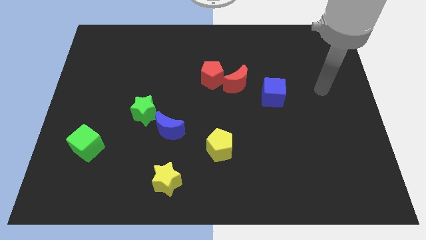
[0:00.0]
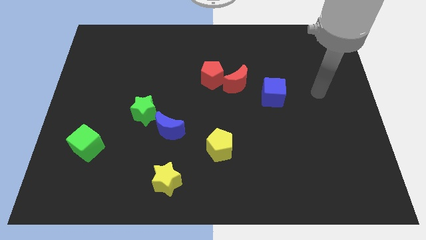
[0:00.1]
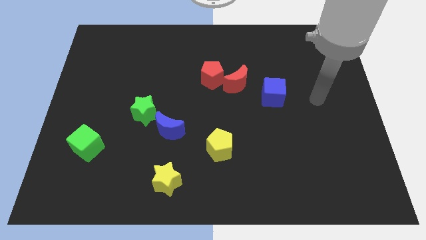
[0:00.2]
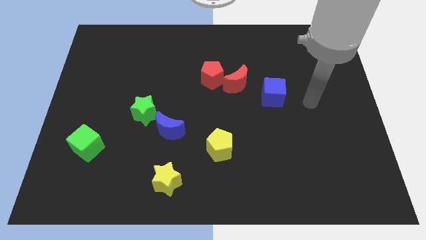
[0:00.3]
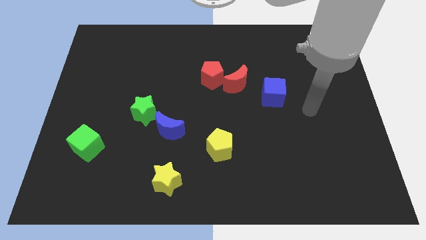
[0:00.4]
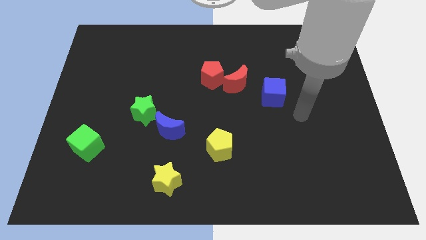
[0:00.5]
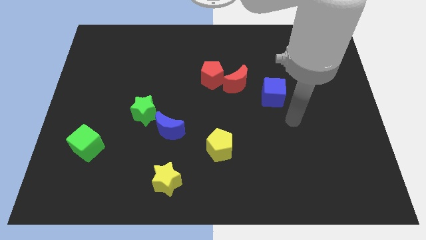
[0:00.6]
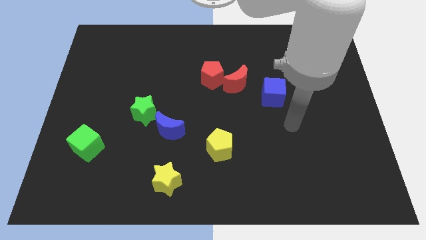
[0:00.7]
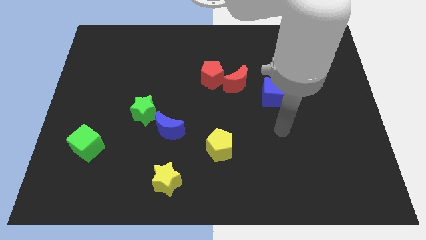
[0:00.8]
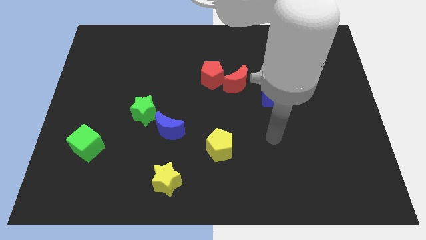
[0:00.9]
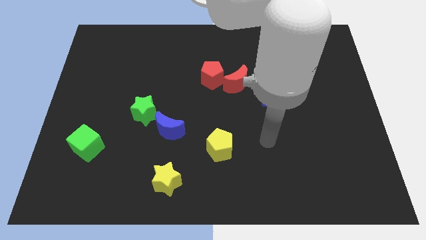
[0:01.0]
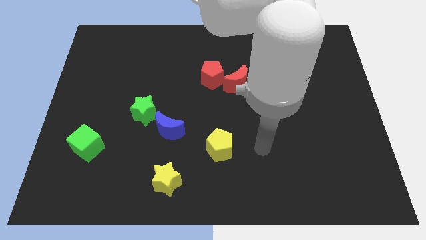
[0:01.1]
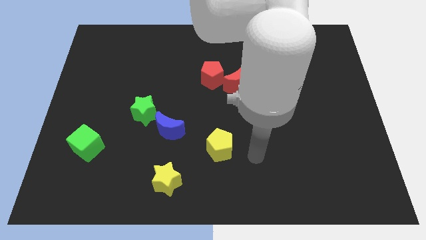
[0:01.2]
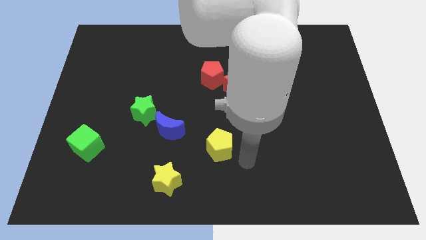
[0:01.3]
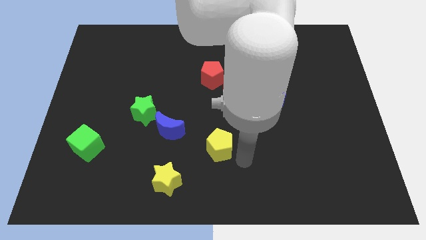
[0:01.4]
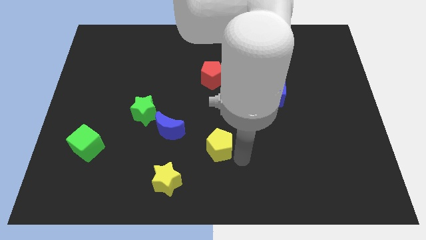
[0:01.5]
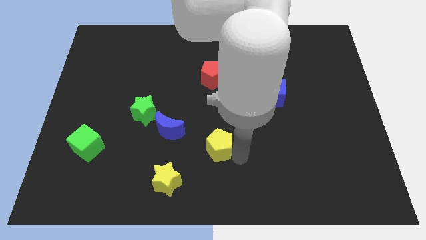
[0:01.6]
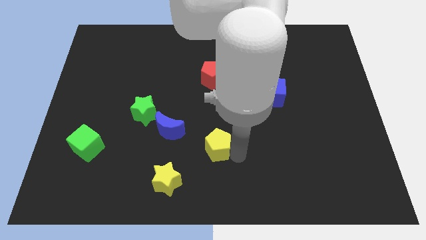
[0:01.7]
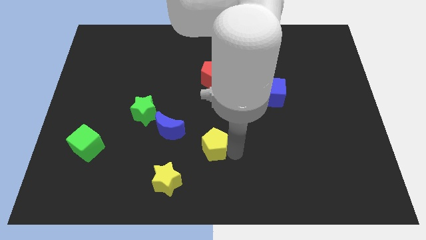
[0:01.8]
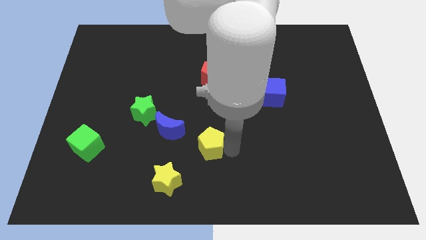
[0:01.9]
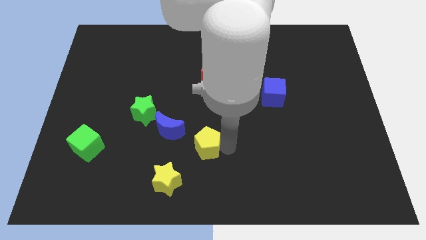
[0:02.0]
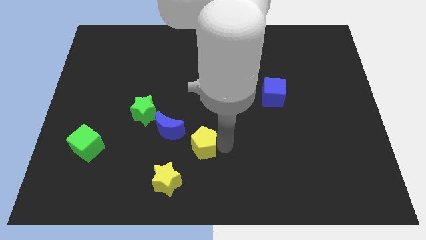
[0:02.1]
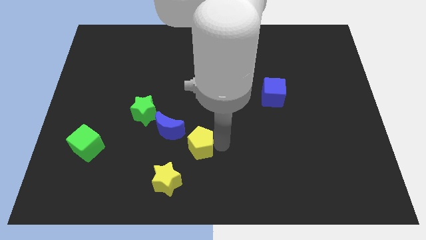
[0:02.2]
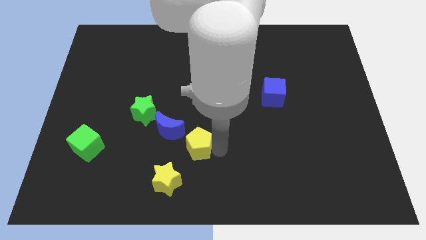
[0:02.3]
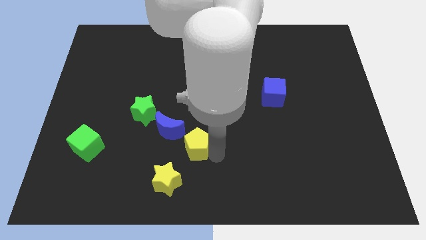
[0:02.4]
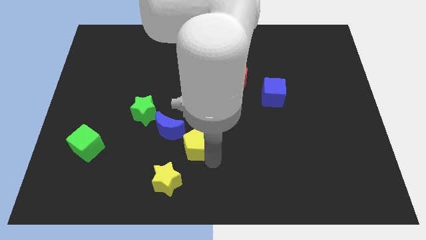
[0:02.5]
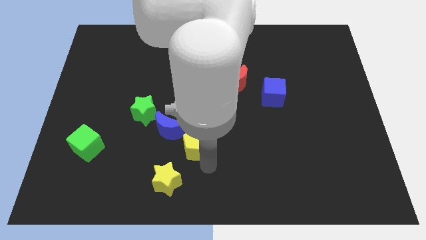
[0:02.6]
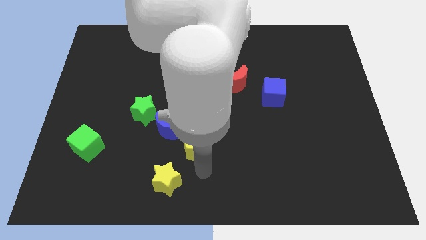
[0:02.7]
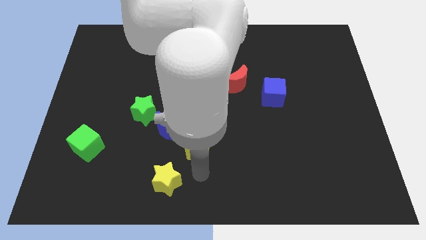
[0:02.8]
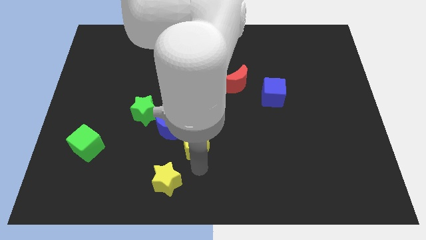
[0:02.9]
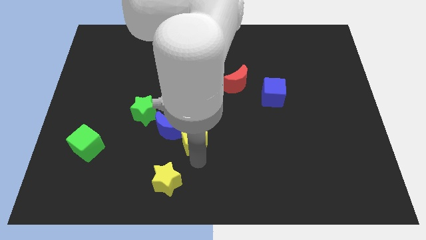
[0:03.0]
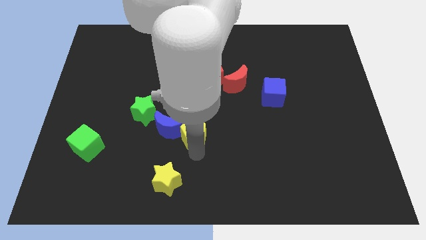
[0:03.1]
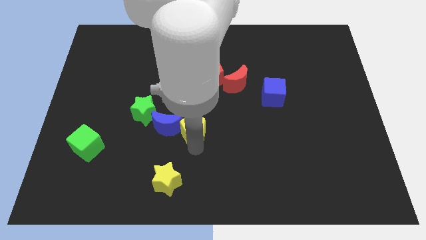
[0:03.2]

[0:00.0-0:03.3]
push the yellow pentagon somewhat diagonally up and to the left

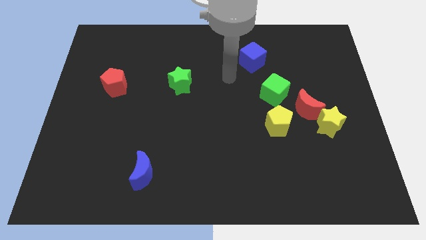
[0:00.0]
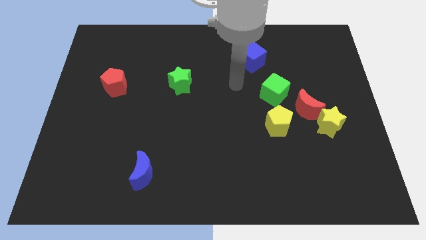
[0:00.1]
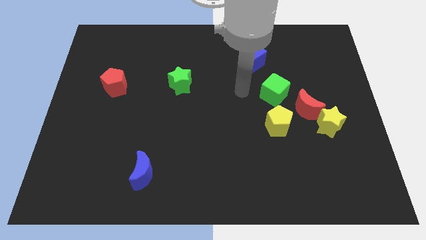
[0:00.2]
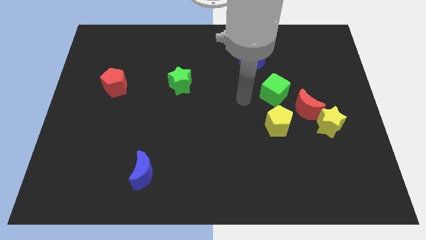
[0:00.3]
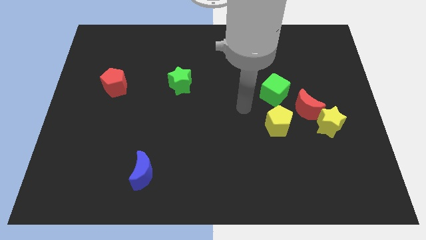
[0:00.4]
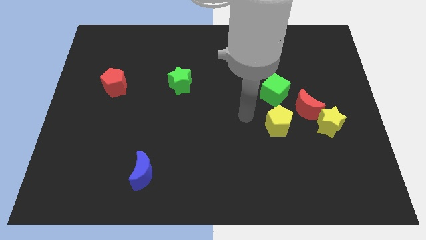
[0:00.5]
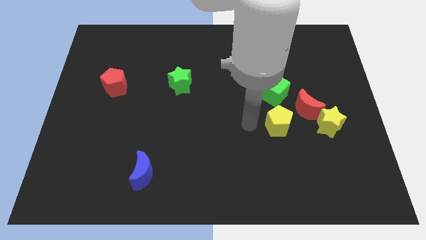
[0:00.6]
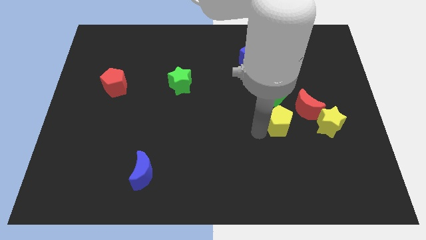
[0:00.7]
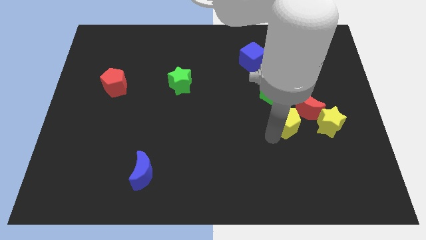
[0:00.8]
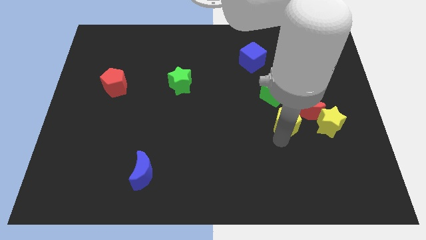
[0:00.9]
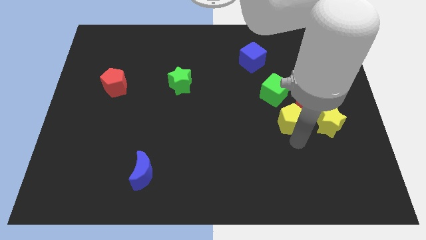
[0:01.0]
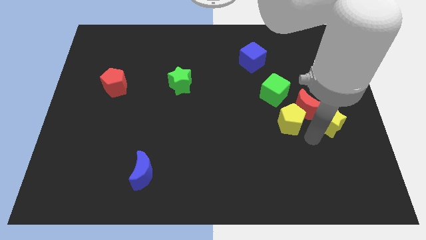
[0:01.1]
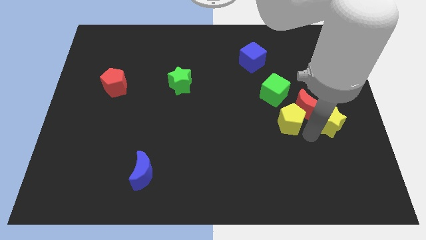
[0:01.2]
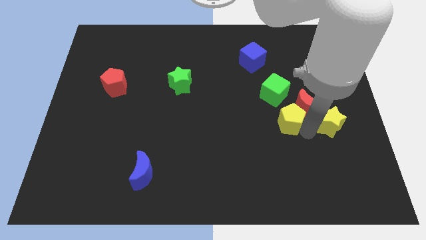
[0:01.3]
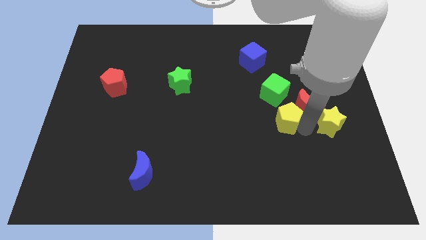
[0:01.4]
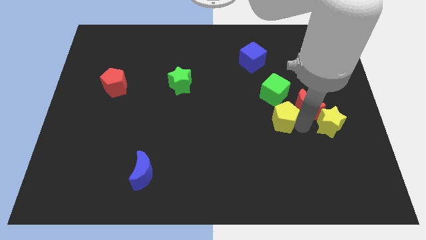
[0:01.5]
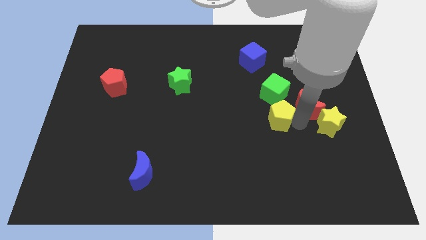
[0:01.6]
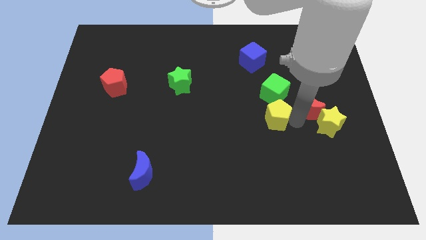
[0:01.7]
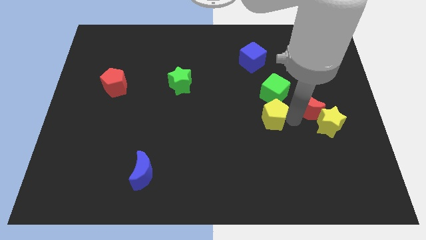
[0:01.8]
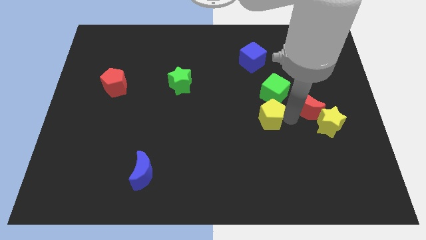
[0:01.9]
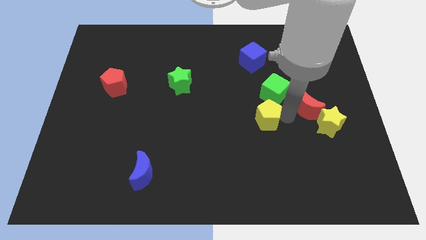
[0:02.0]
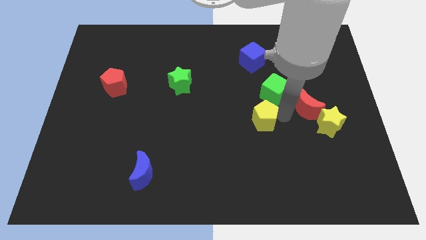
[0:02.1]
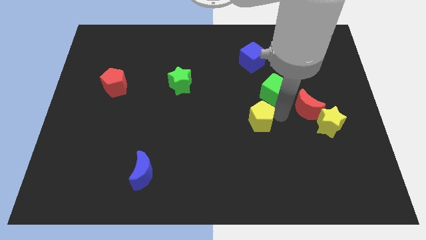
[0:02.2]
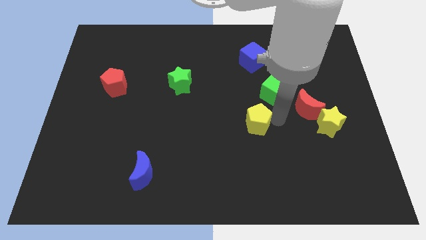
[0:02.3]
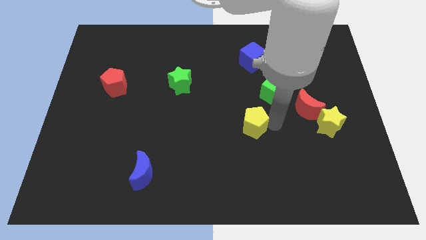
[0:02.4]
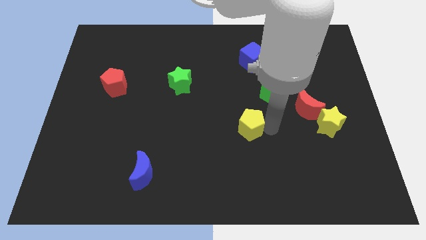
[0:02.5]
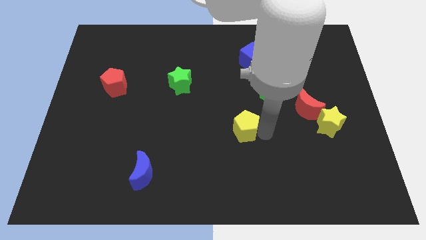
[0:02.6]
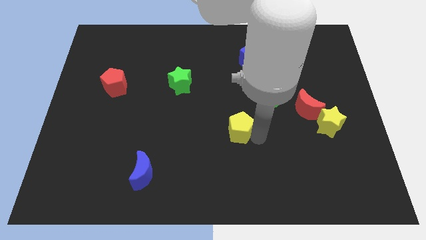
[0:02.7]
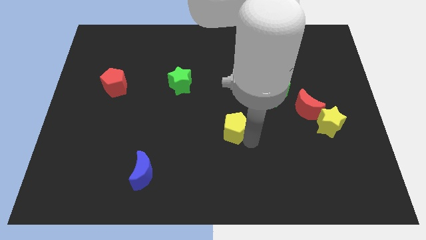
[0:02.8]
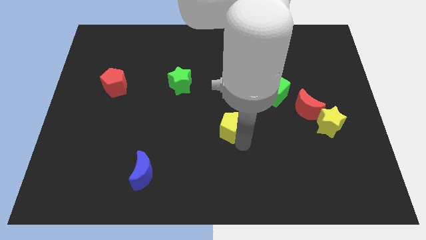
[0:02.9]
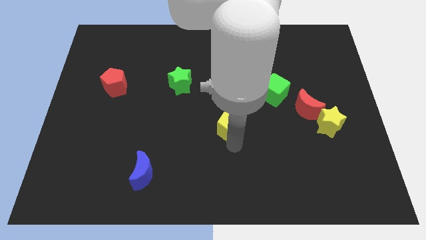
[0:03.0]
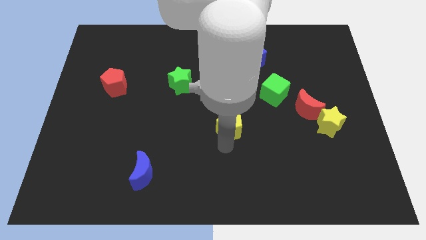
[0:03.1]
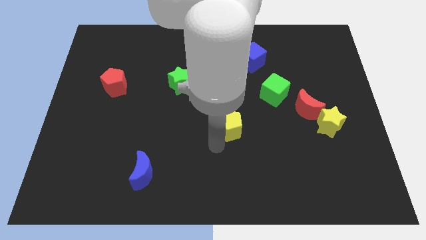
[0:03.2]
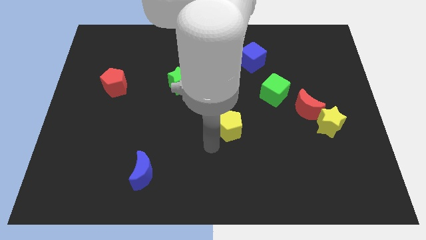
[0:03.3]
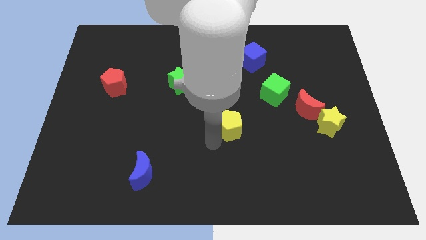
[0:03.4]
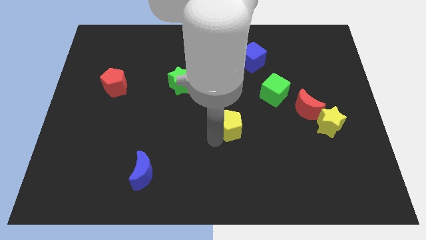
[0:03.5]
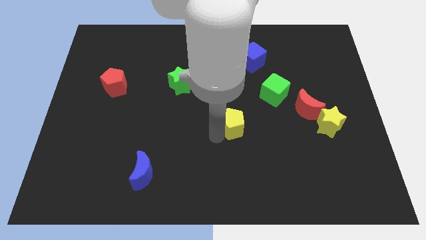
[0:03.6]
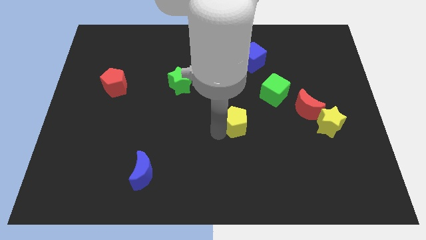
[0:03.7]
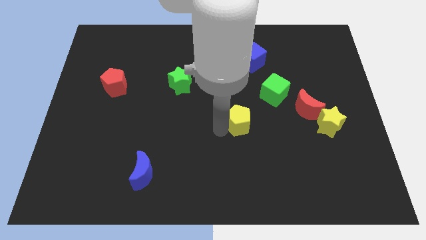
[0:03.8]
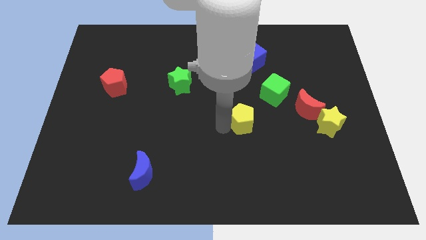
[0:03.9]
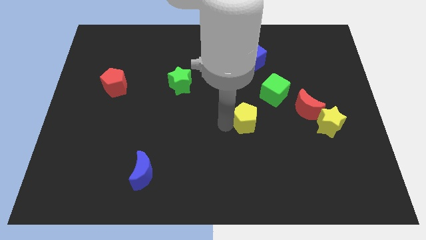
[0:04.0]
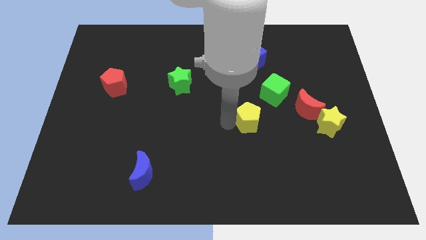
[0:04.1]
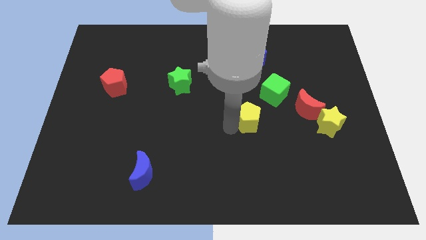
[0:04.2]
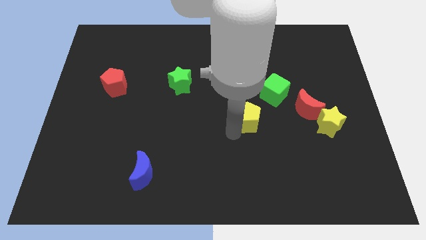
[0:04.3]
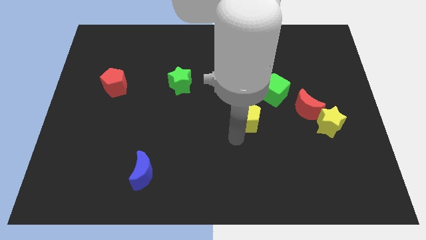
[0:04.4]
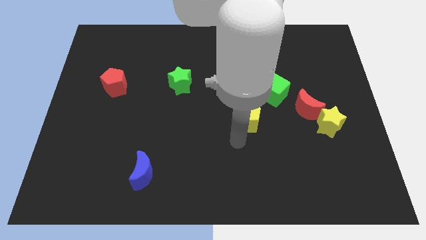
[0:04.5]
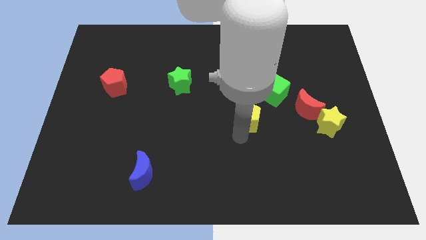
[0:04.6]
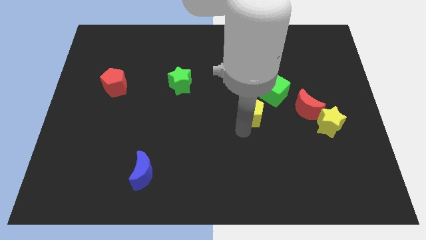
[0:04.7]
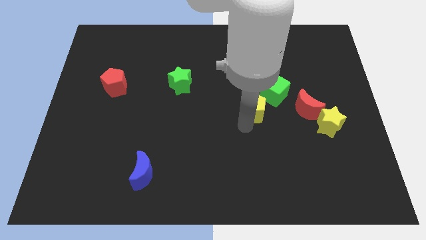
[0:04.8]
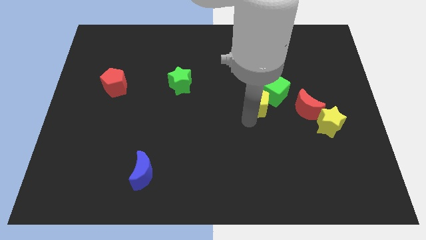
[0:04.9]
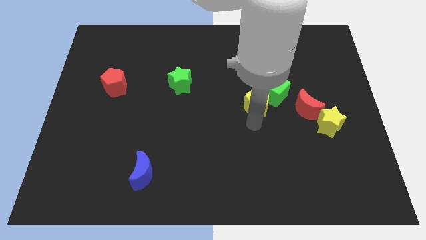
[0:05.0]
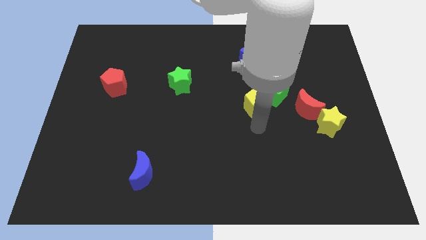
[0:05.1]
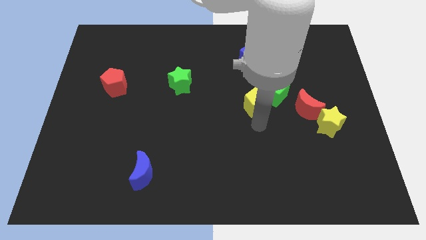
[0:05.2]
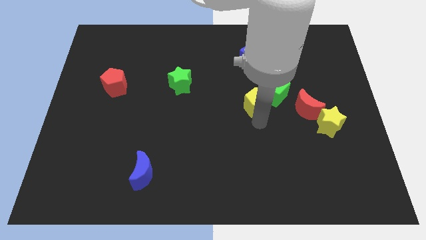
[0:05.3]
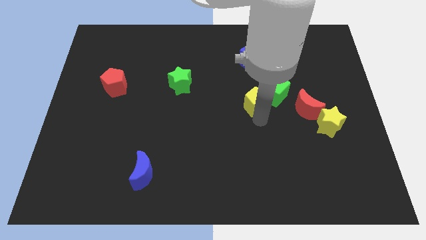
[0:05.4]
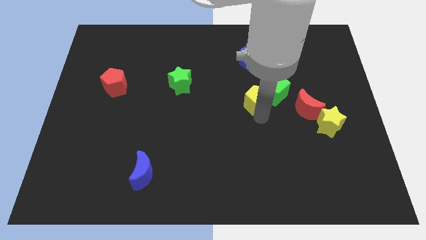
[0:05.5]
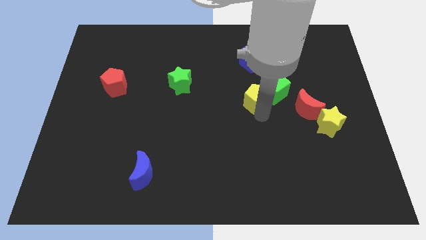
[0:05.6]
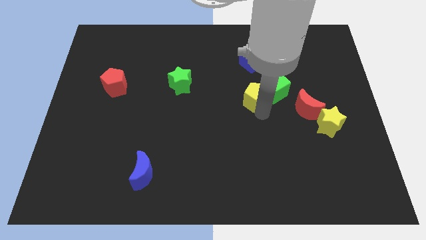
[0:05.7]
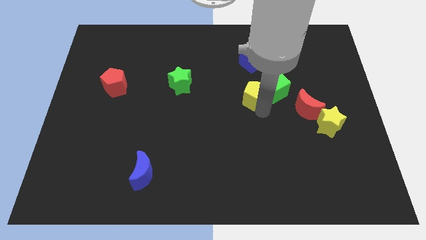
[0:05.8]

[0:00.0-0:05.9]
push the yellow pentagon upwards somewhat
